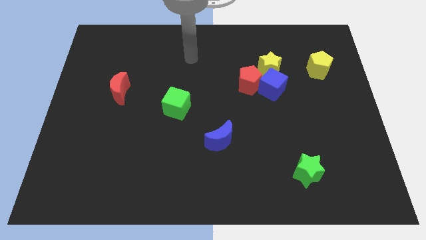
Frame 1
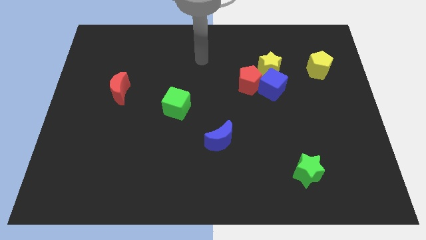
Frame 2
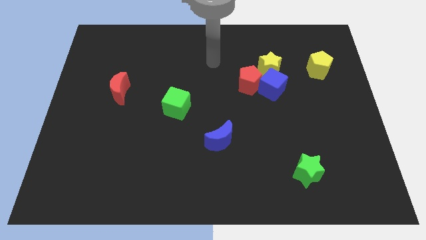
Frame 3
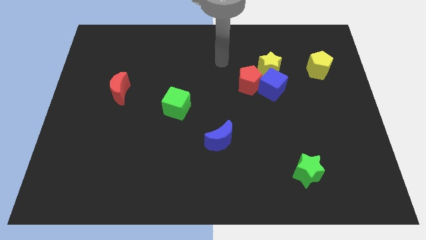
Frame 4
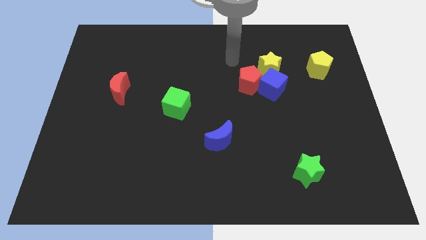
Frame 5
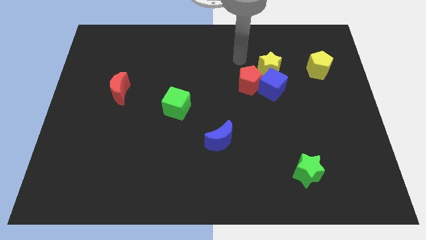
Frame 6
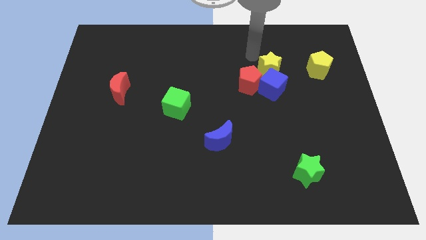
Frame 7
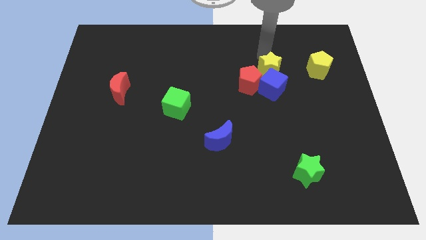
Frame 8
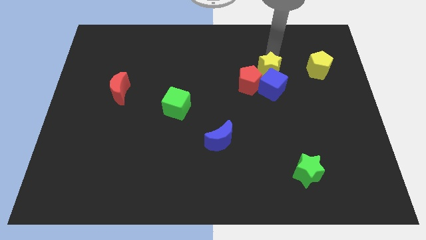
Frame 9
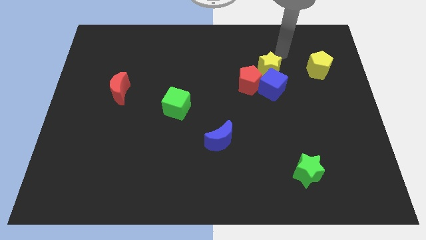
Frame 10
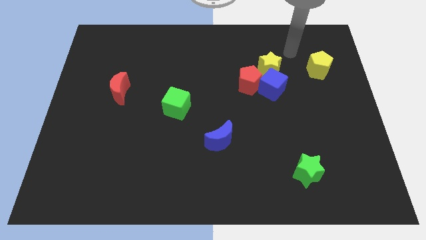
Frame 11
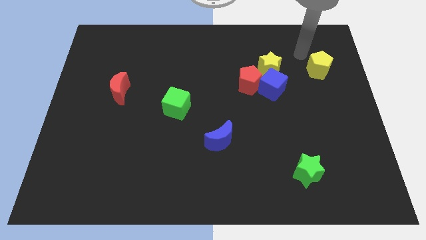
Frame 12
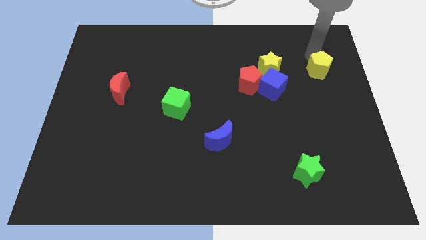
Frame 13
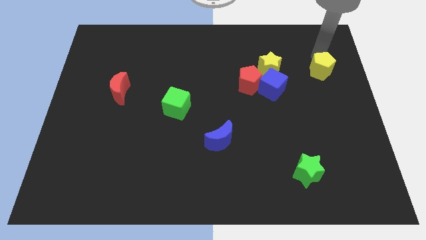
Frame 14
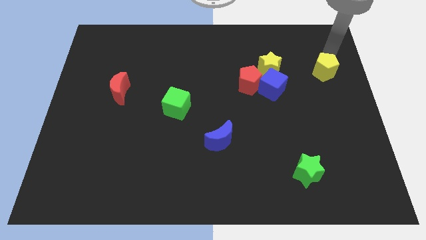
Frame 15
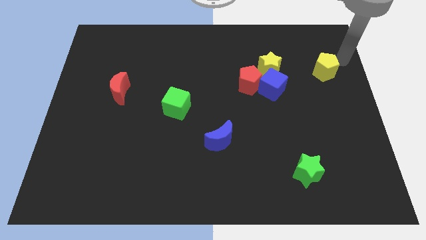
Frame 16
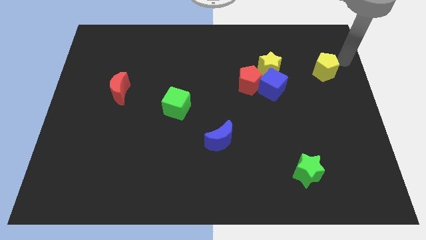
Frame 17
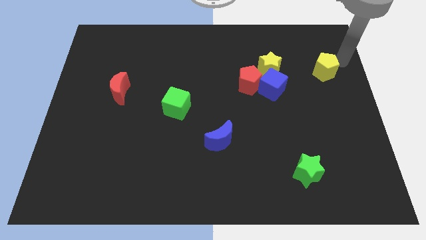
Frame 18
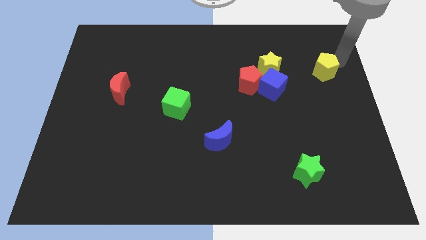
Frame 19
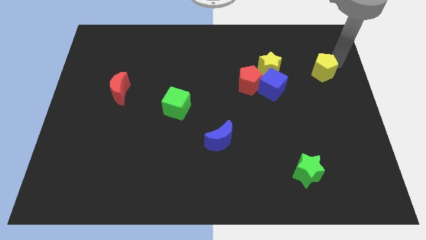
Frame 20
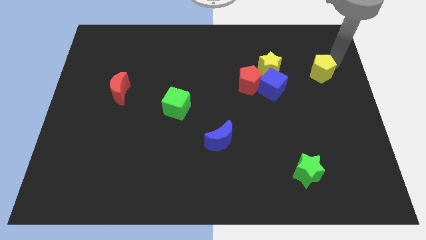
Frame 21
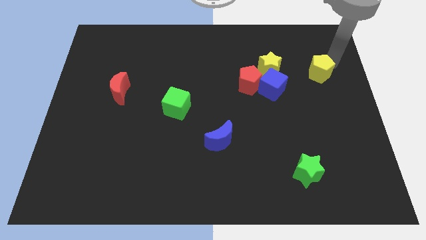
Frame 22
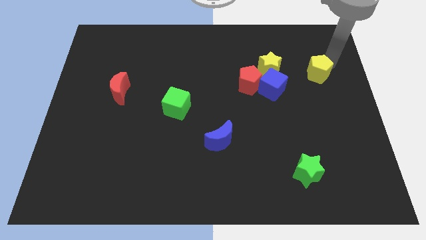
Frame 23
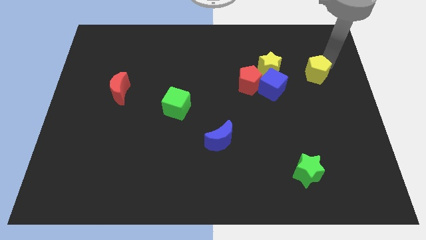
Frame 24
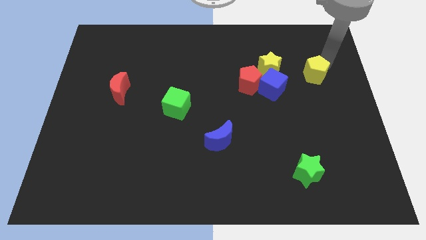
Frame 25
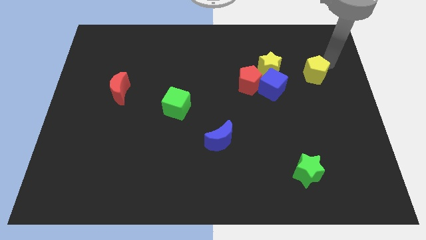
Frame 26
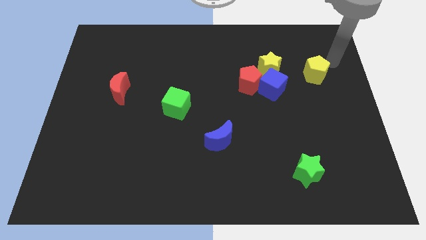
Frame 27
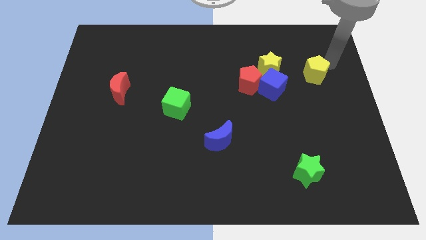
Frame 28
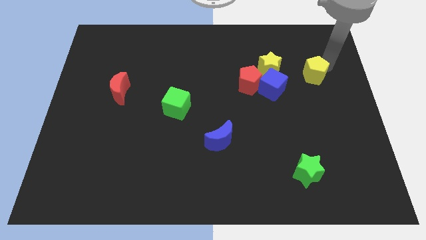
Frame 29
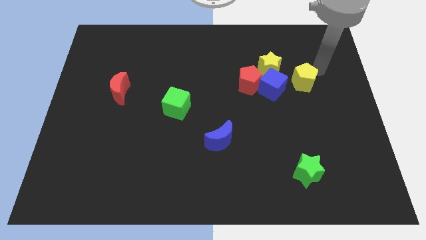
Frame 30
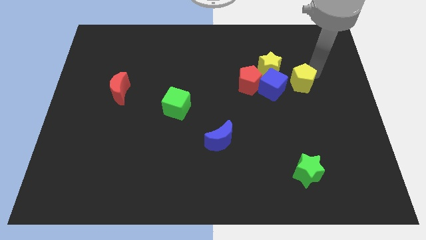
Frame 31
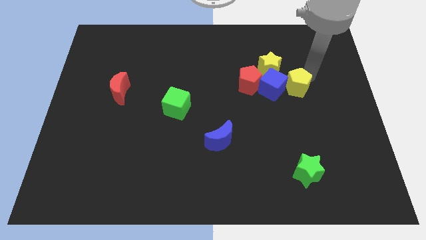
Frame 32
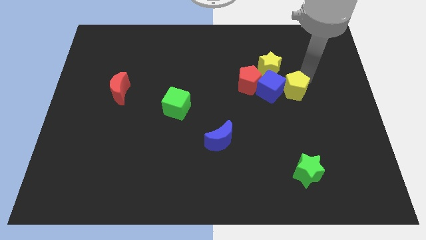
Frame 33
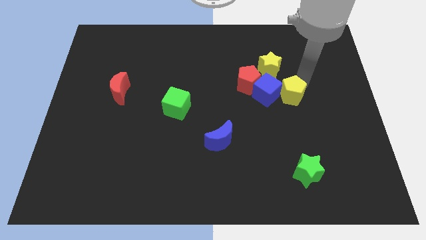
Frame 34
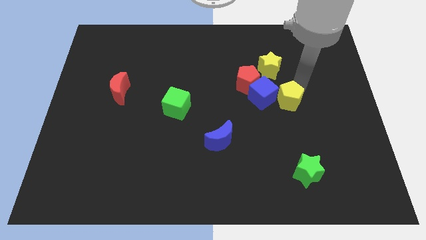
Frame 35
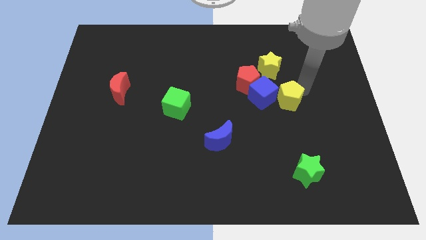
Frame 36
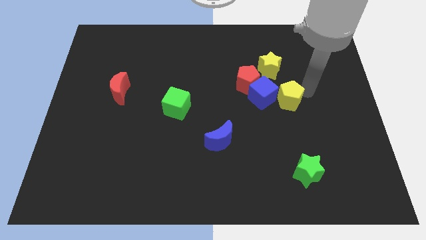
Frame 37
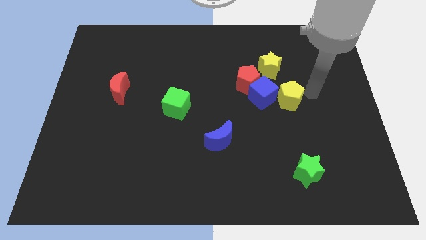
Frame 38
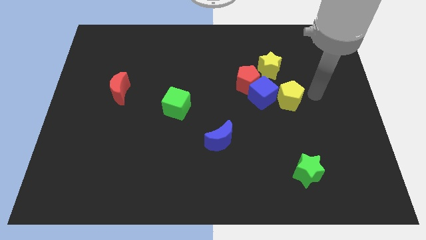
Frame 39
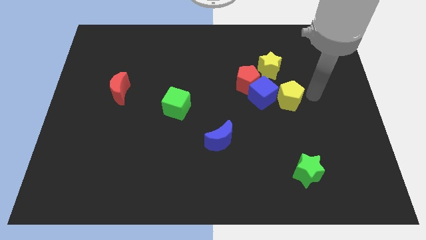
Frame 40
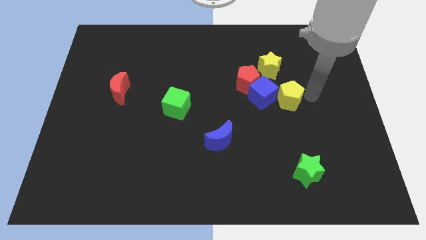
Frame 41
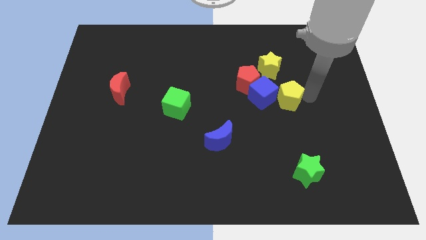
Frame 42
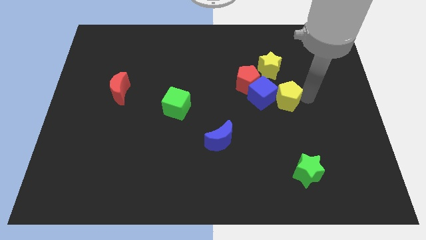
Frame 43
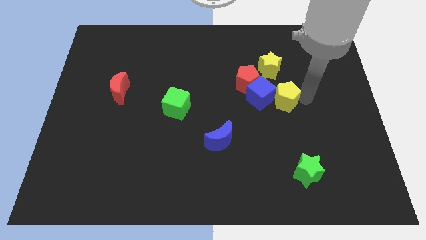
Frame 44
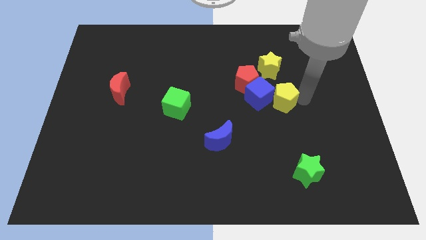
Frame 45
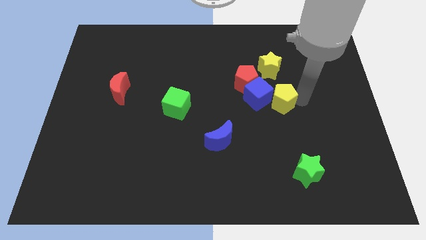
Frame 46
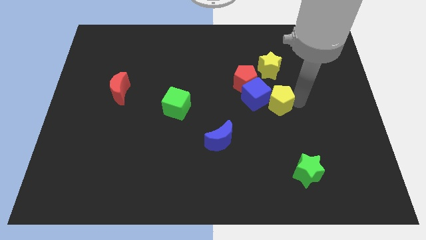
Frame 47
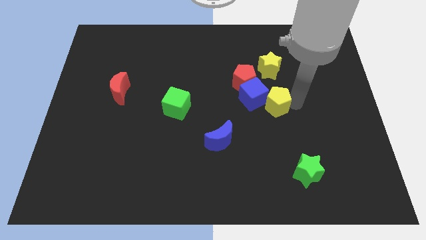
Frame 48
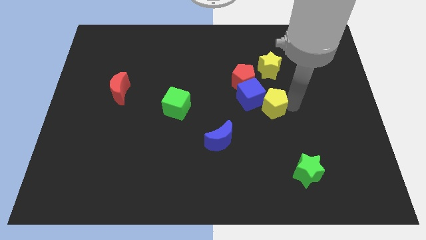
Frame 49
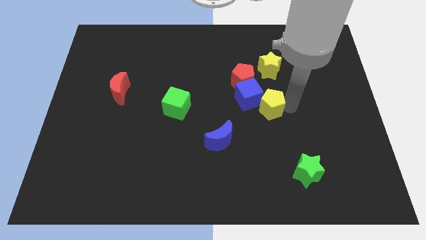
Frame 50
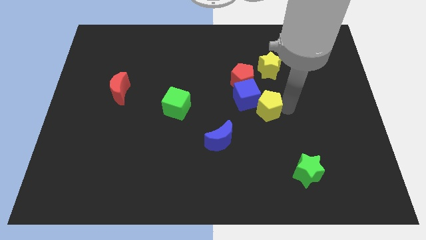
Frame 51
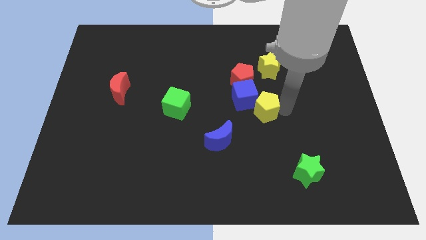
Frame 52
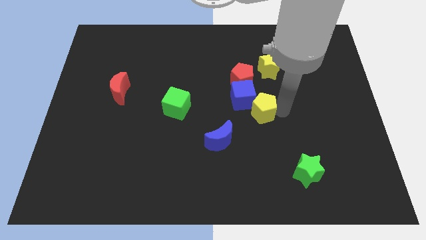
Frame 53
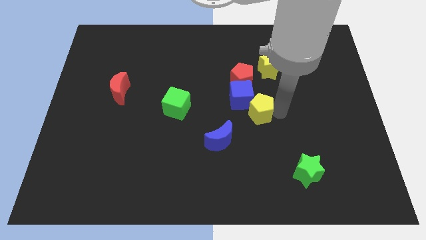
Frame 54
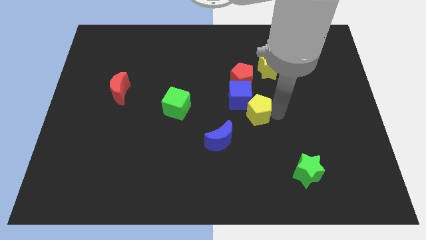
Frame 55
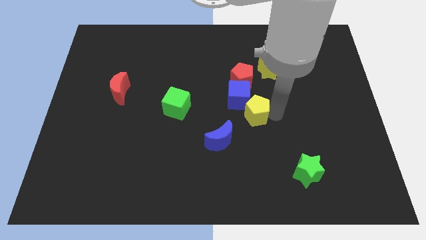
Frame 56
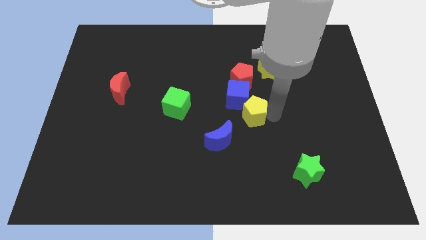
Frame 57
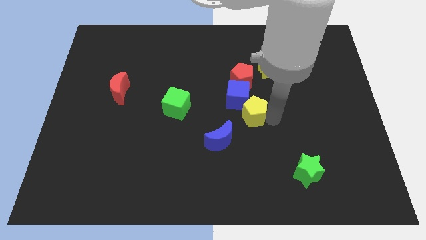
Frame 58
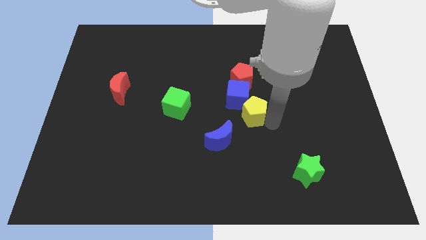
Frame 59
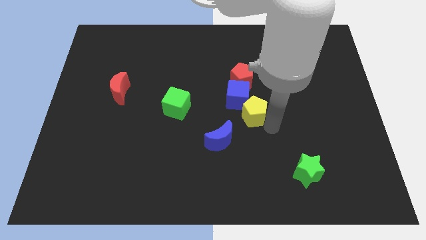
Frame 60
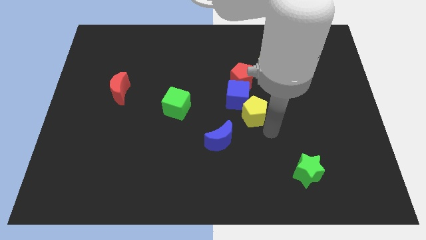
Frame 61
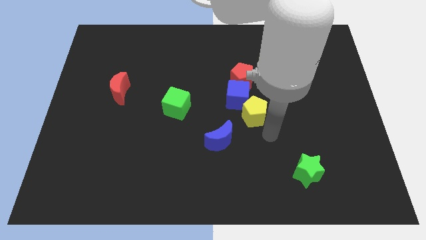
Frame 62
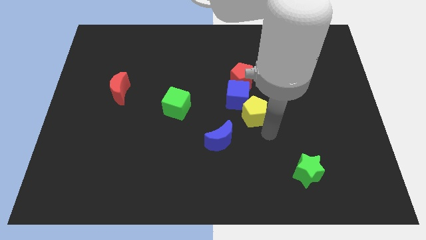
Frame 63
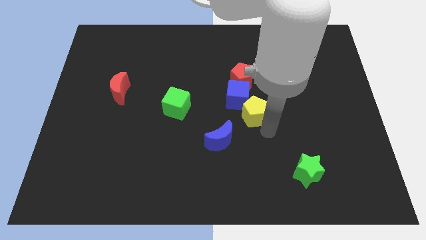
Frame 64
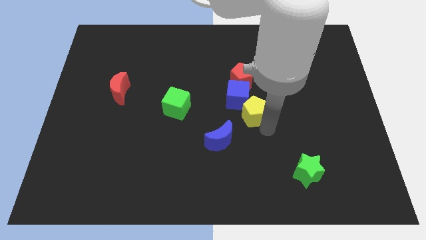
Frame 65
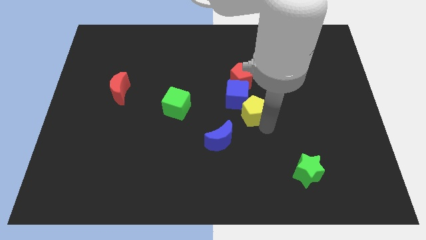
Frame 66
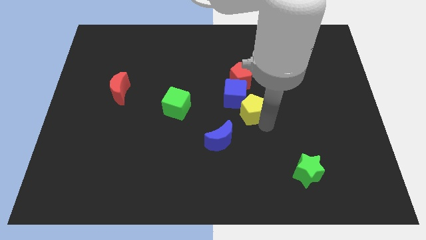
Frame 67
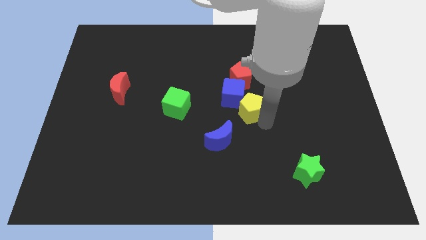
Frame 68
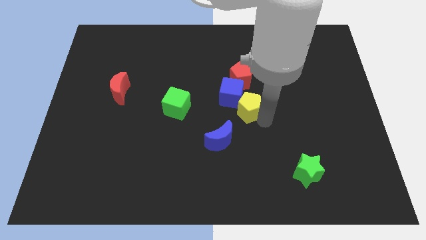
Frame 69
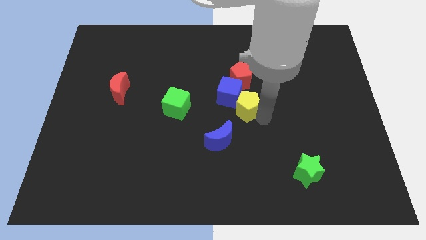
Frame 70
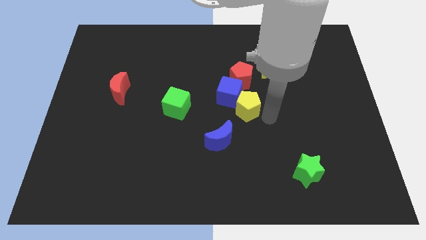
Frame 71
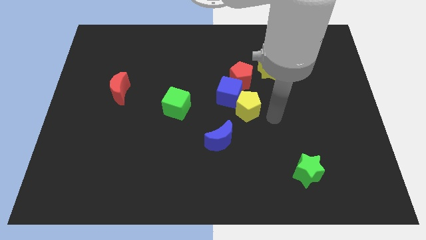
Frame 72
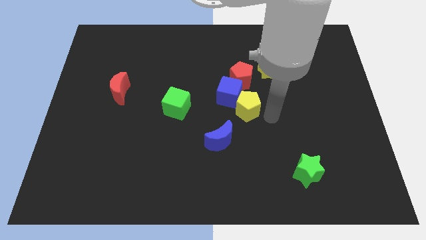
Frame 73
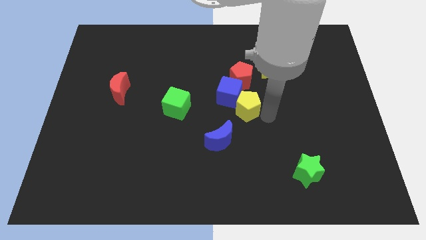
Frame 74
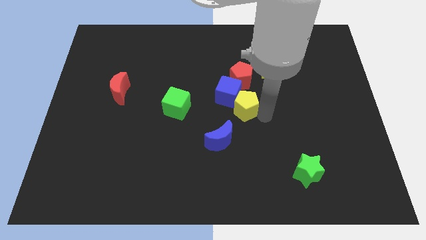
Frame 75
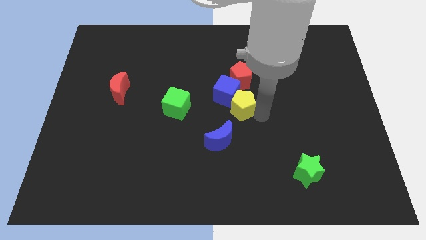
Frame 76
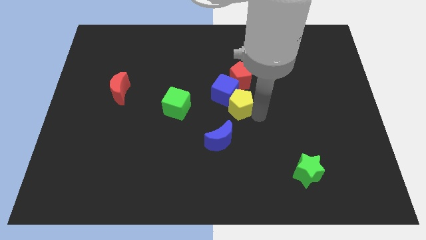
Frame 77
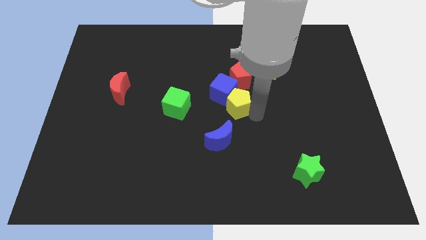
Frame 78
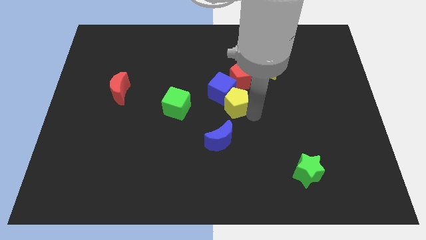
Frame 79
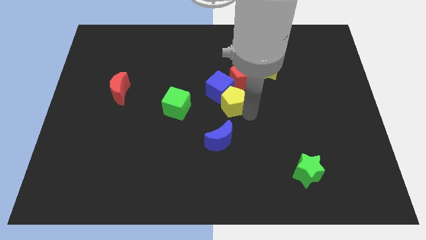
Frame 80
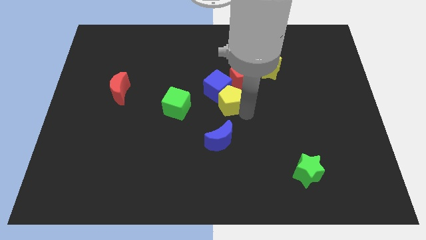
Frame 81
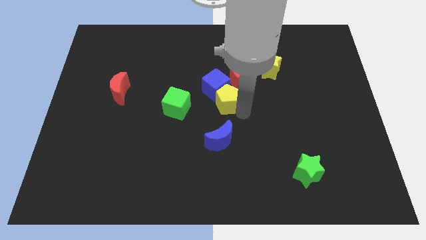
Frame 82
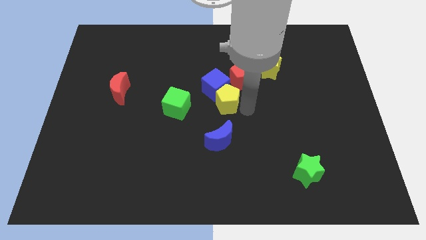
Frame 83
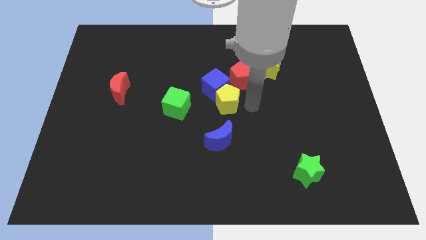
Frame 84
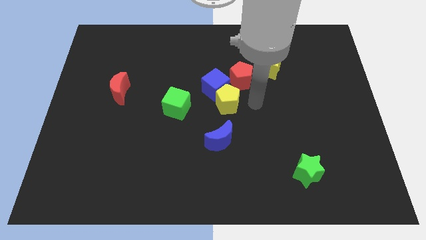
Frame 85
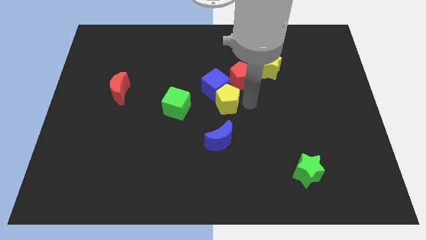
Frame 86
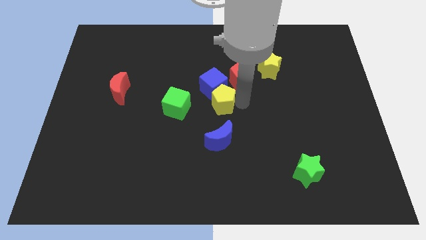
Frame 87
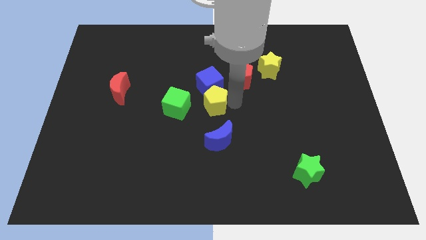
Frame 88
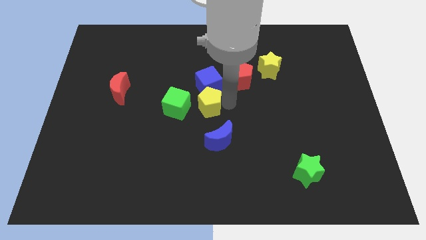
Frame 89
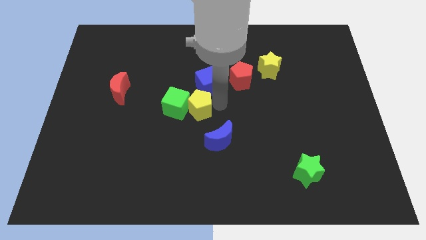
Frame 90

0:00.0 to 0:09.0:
move the yellow pentagon to the green cube
